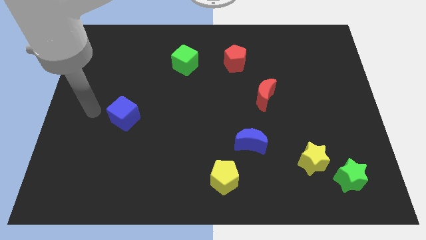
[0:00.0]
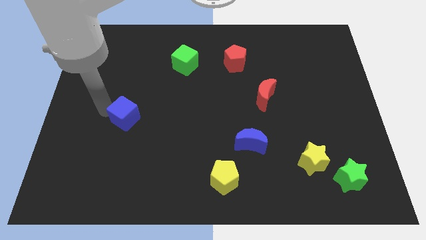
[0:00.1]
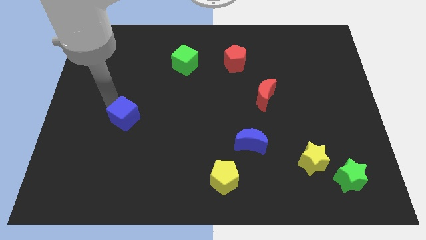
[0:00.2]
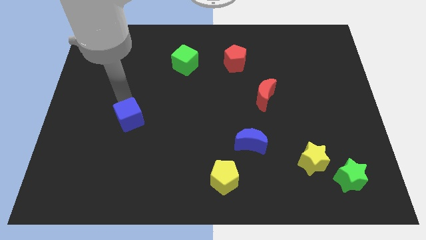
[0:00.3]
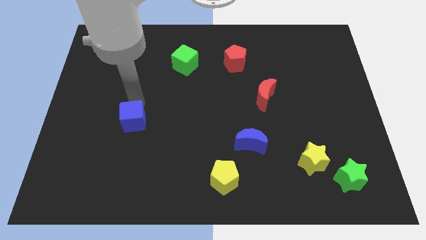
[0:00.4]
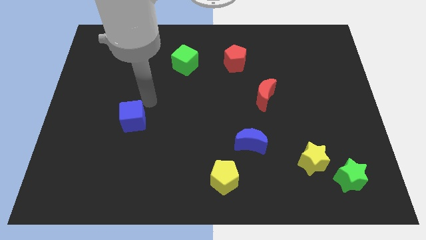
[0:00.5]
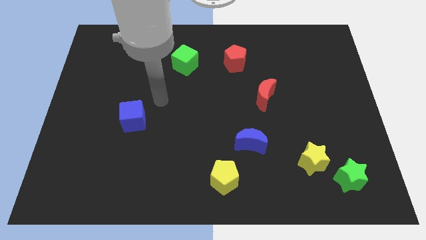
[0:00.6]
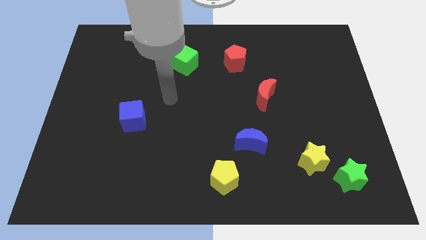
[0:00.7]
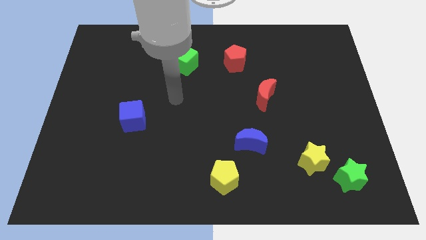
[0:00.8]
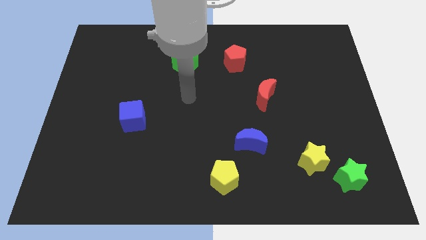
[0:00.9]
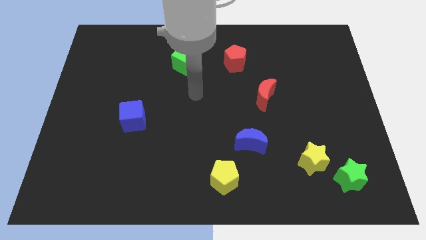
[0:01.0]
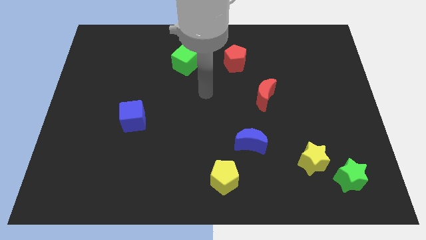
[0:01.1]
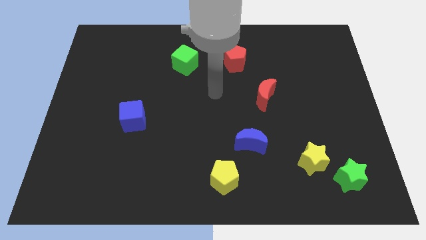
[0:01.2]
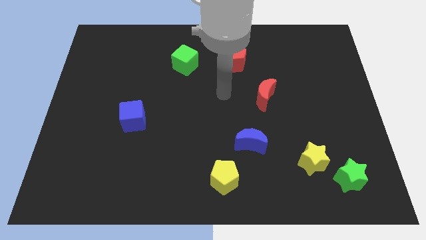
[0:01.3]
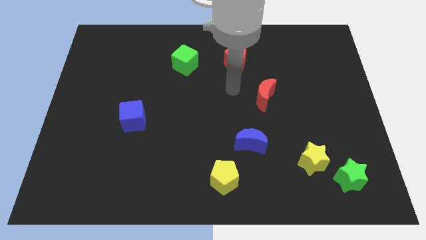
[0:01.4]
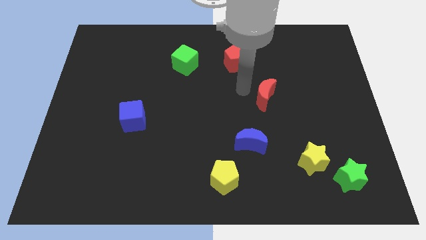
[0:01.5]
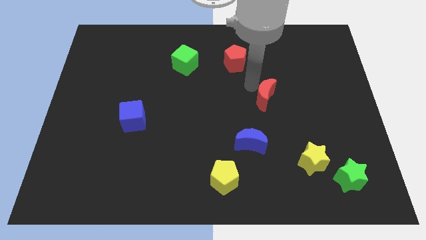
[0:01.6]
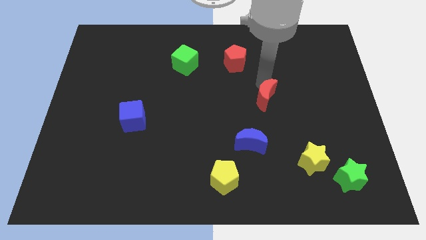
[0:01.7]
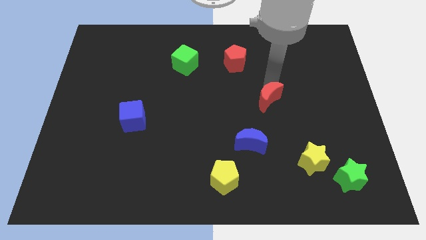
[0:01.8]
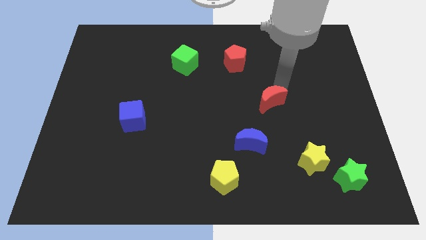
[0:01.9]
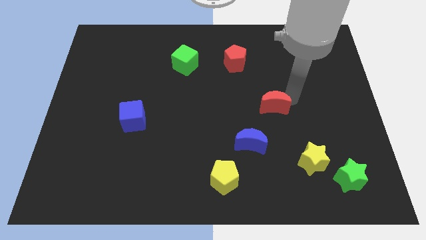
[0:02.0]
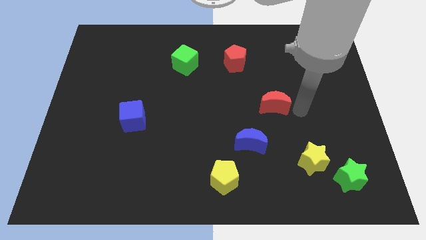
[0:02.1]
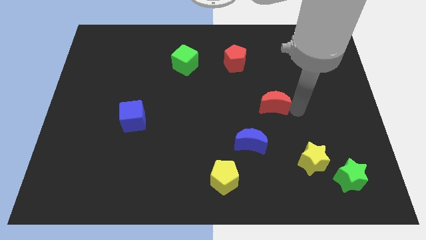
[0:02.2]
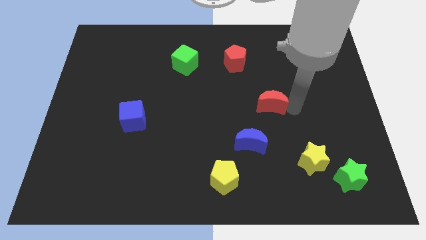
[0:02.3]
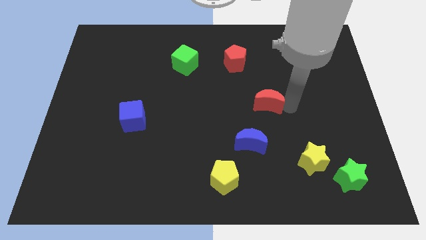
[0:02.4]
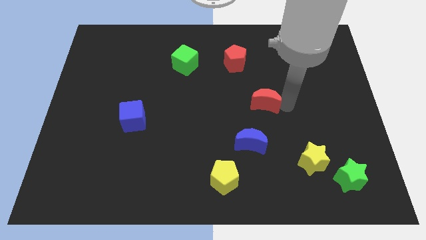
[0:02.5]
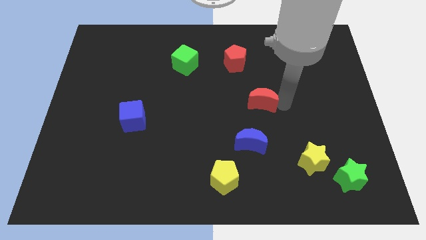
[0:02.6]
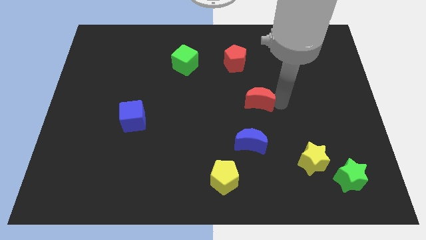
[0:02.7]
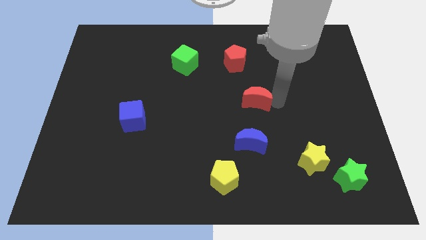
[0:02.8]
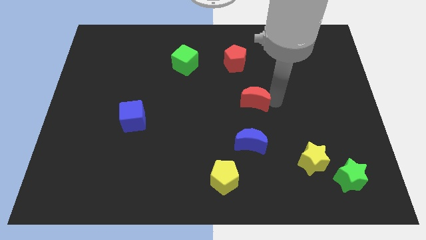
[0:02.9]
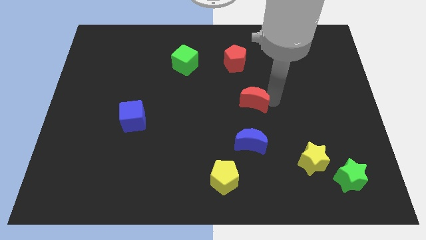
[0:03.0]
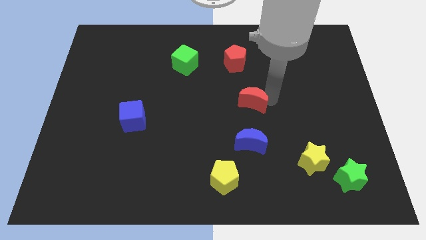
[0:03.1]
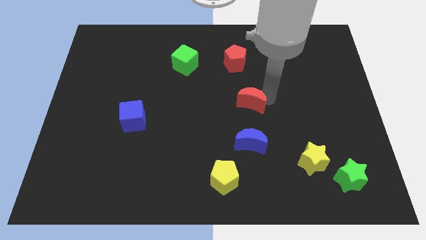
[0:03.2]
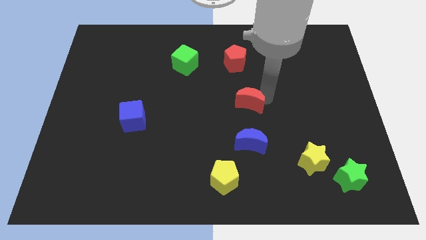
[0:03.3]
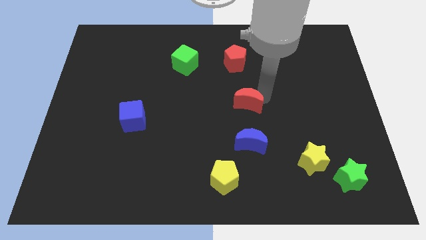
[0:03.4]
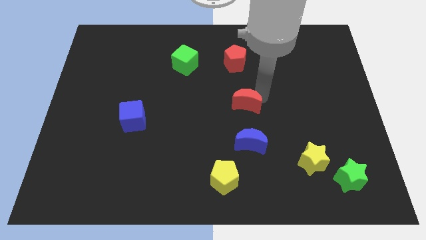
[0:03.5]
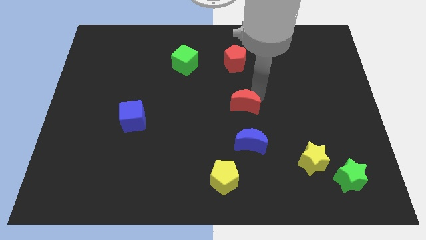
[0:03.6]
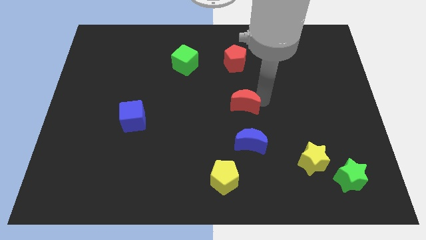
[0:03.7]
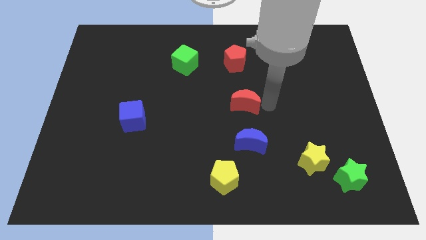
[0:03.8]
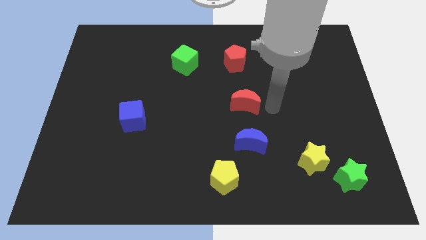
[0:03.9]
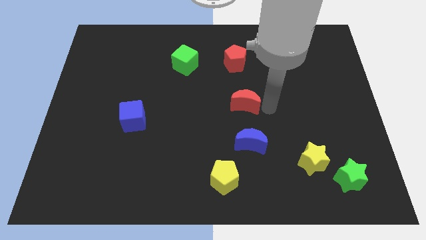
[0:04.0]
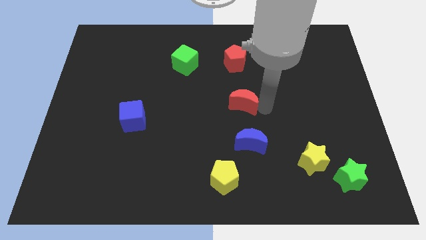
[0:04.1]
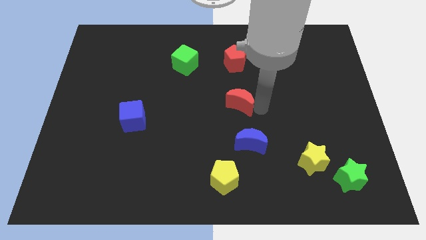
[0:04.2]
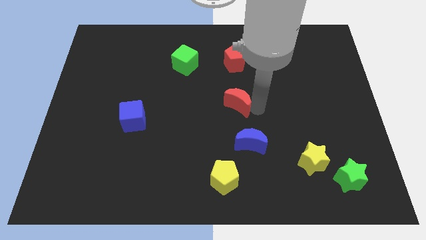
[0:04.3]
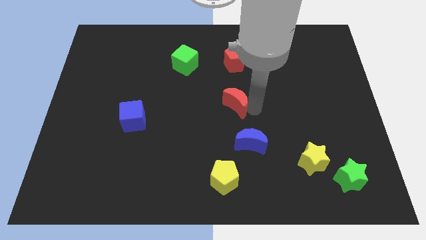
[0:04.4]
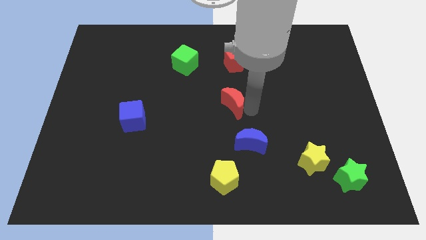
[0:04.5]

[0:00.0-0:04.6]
slightly push the red moon left

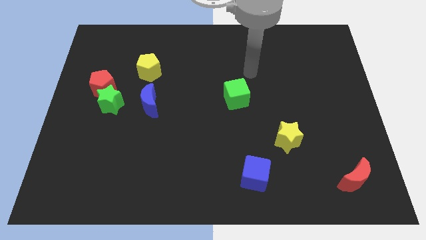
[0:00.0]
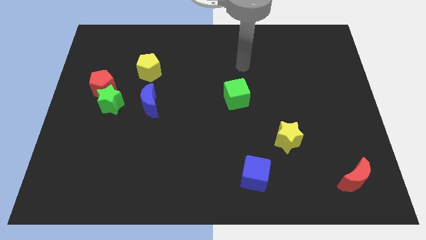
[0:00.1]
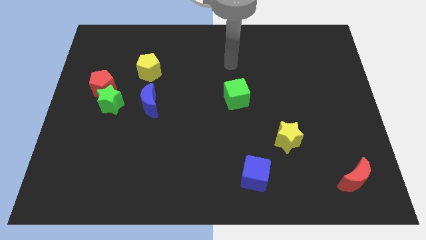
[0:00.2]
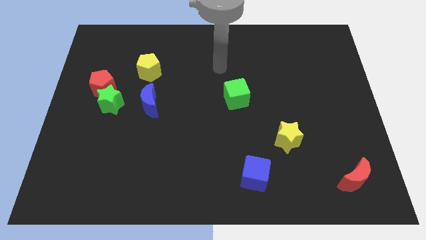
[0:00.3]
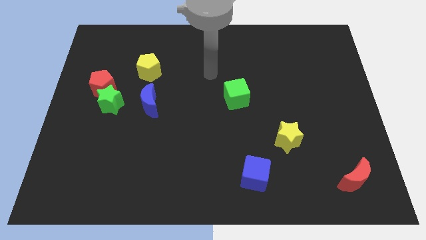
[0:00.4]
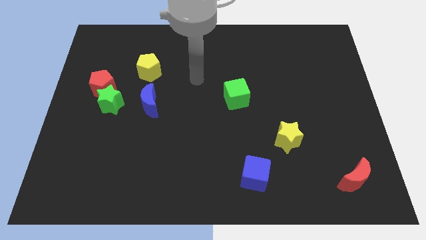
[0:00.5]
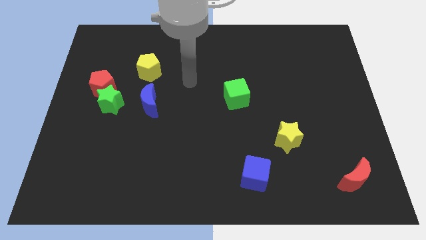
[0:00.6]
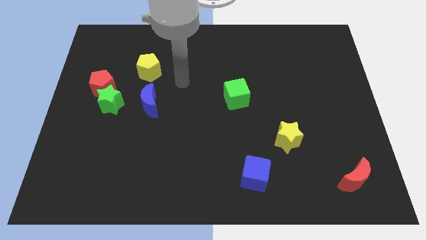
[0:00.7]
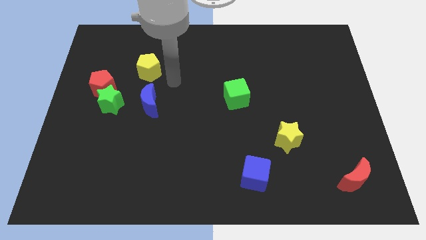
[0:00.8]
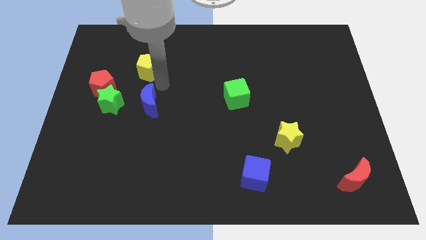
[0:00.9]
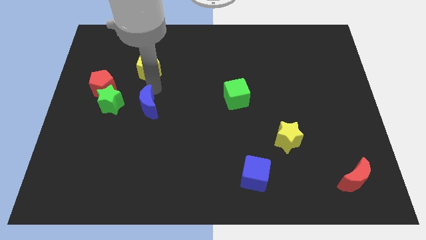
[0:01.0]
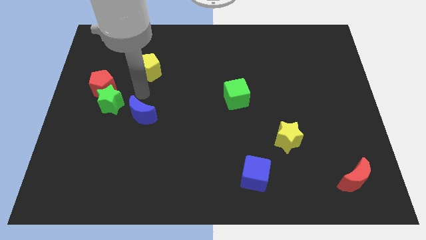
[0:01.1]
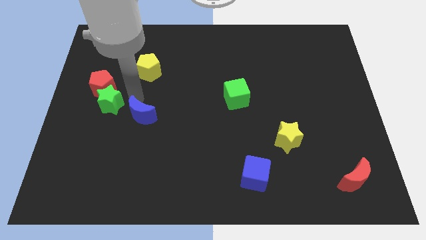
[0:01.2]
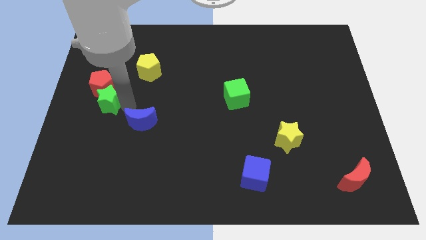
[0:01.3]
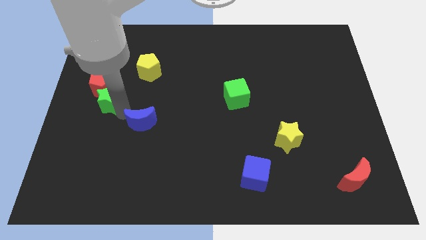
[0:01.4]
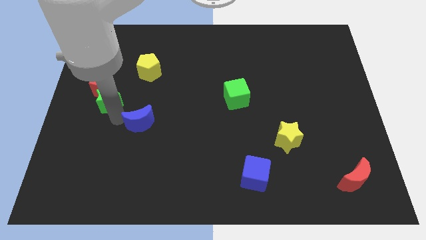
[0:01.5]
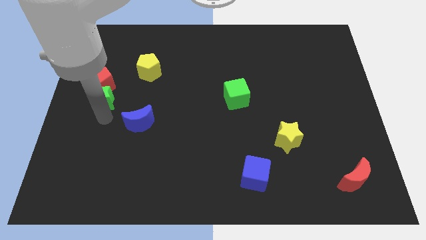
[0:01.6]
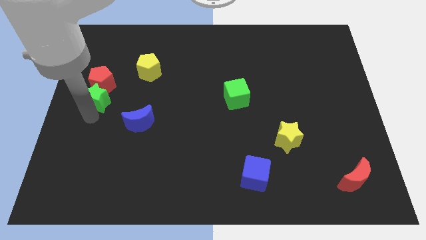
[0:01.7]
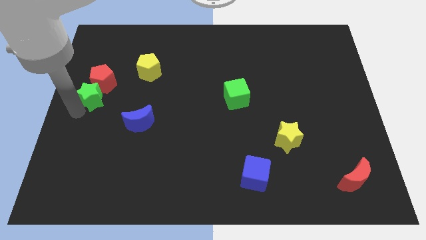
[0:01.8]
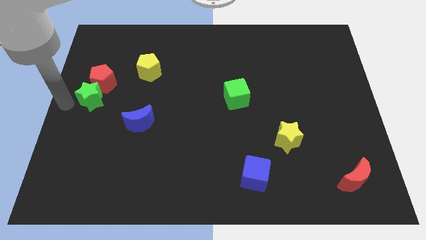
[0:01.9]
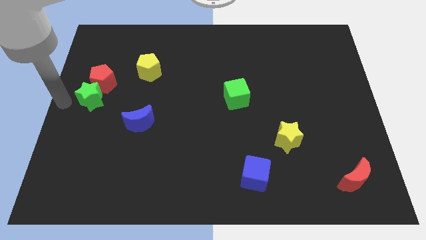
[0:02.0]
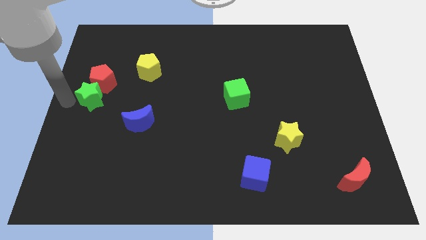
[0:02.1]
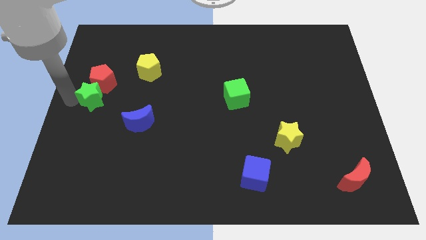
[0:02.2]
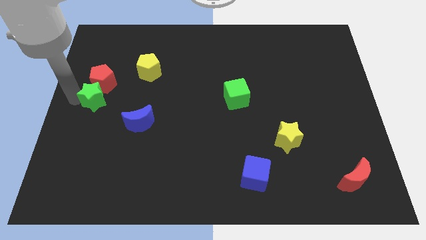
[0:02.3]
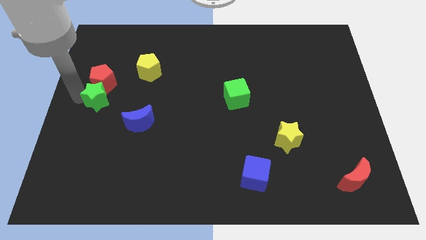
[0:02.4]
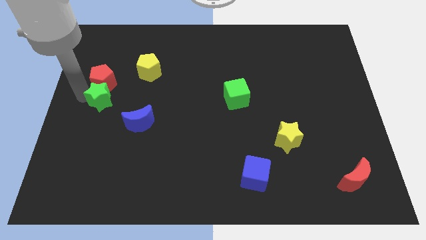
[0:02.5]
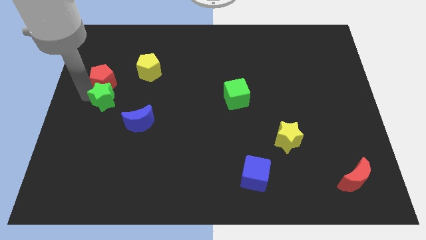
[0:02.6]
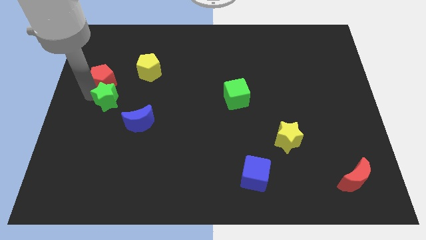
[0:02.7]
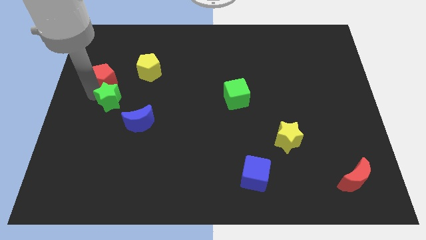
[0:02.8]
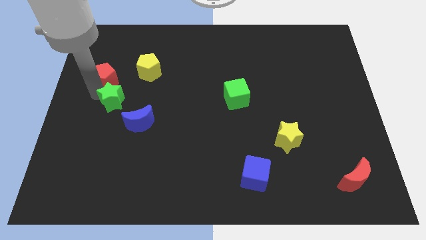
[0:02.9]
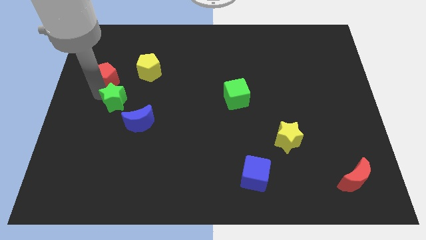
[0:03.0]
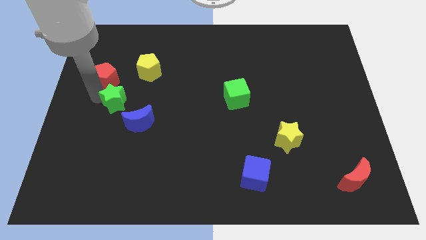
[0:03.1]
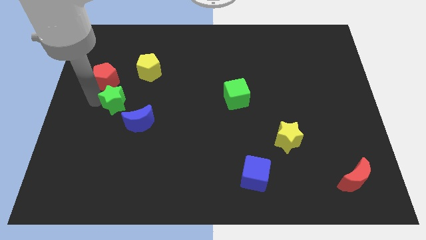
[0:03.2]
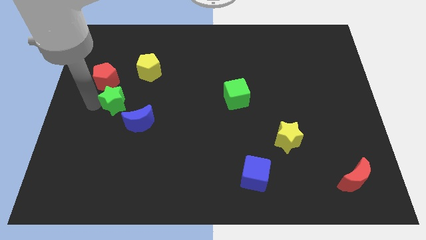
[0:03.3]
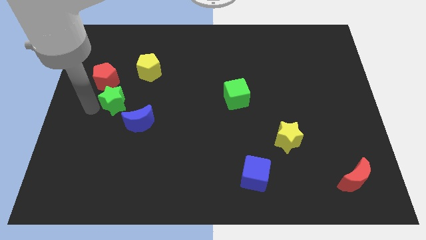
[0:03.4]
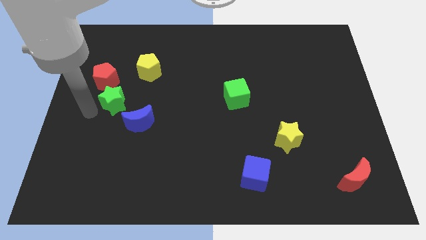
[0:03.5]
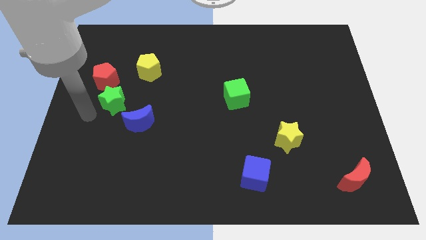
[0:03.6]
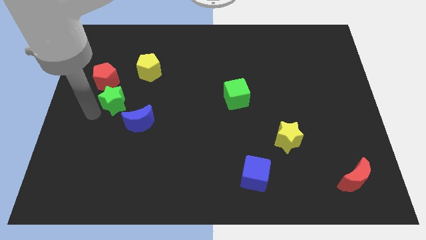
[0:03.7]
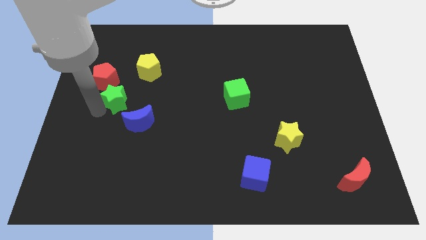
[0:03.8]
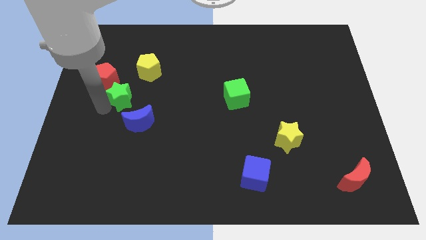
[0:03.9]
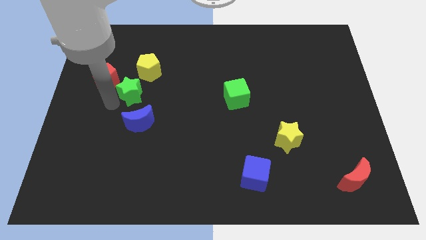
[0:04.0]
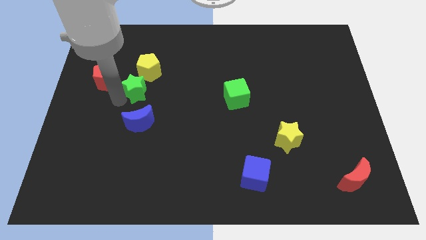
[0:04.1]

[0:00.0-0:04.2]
slightly slide the green star upwards and right diagonally
